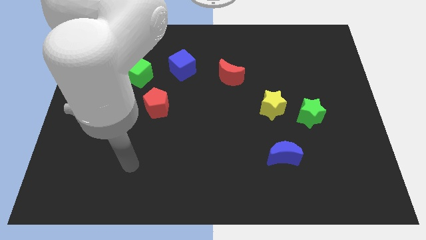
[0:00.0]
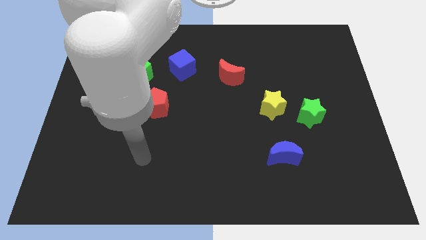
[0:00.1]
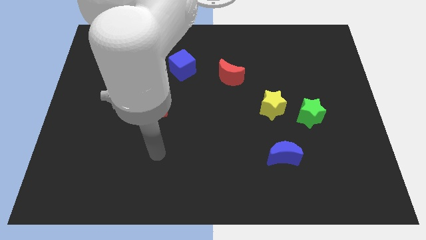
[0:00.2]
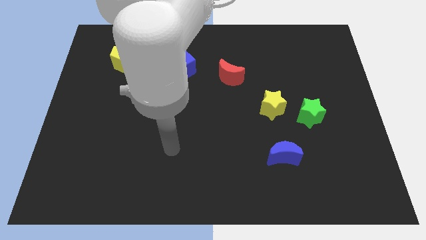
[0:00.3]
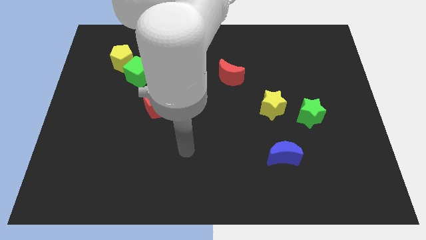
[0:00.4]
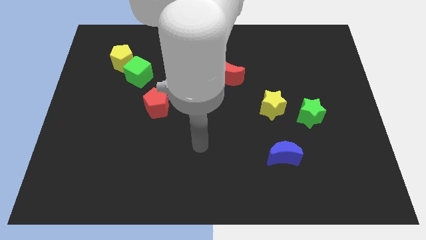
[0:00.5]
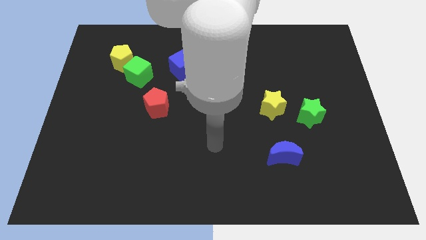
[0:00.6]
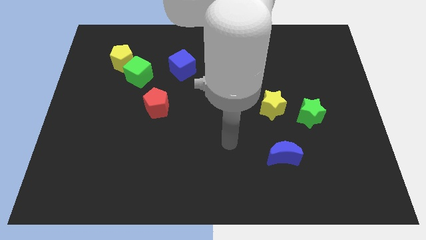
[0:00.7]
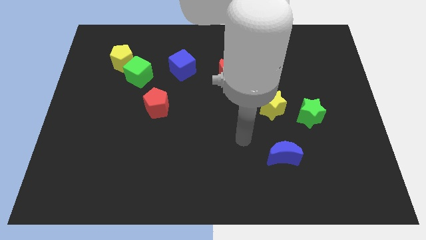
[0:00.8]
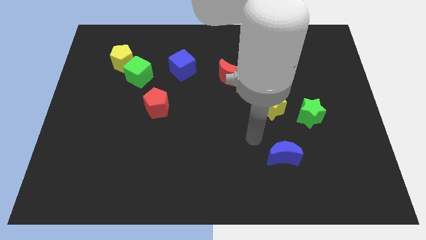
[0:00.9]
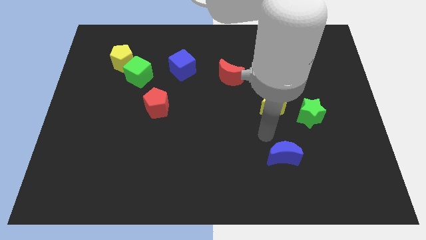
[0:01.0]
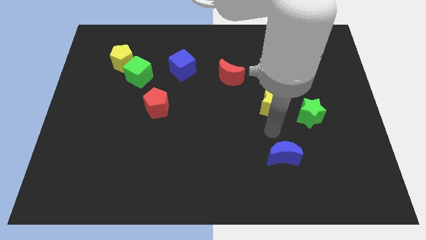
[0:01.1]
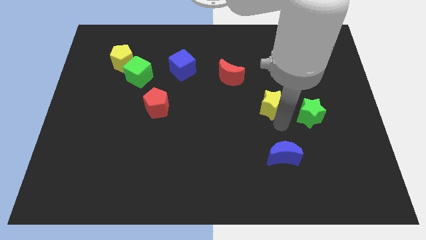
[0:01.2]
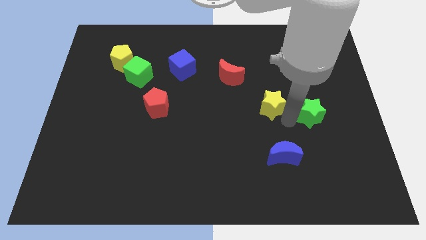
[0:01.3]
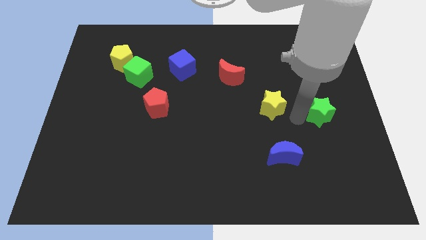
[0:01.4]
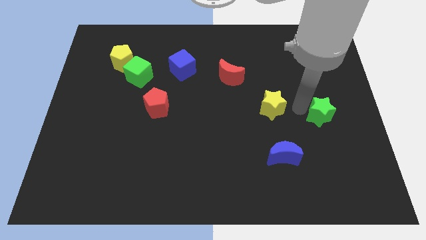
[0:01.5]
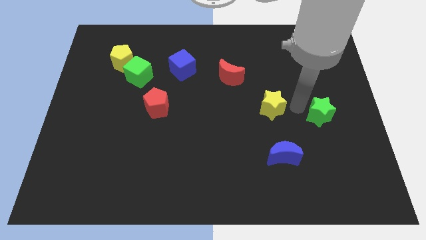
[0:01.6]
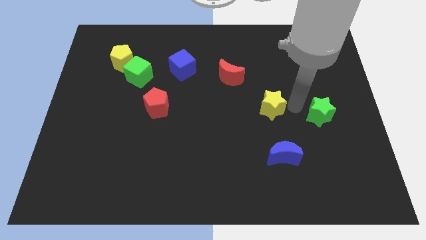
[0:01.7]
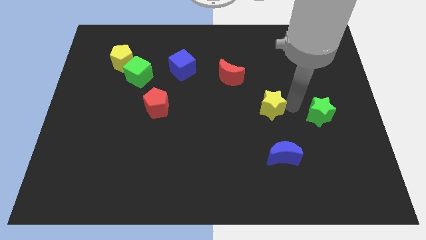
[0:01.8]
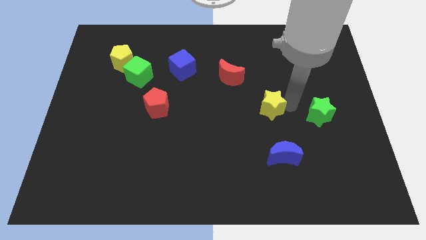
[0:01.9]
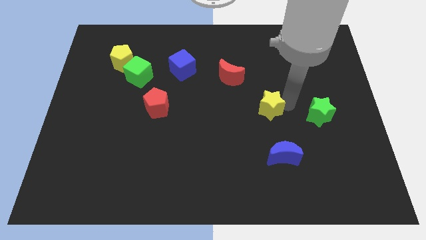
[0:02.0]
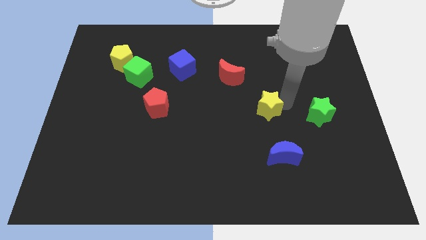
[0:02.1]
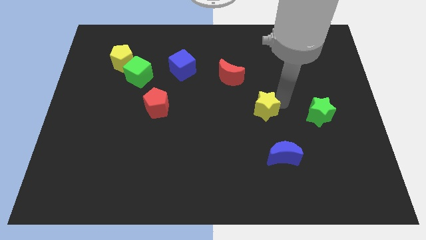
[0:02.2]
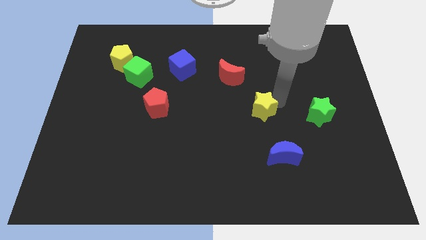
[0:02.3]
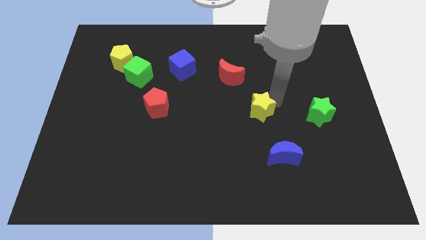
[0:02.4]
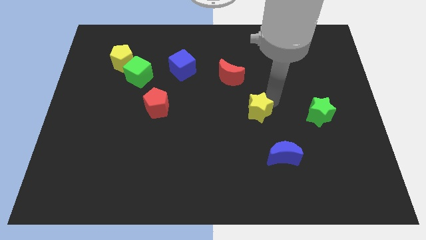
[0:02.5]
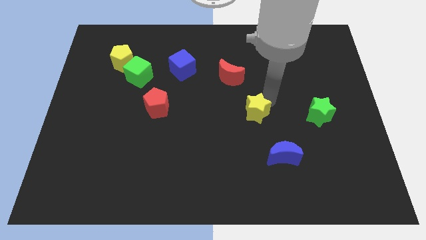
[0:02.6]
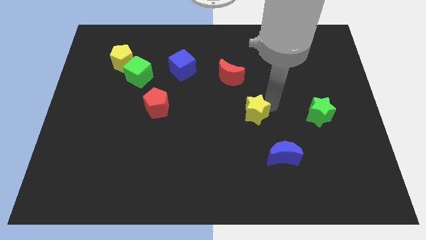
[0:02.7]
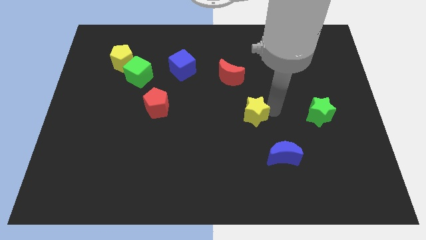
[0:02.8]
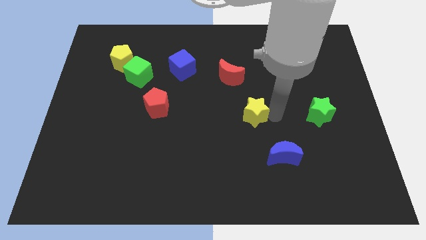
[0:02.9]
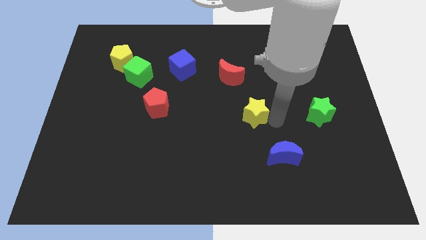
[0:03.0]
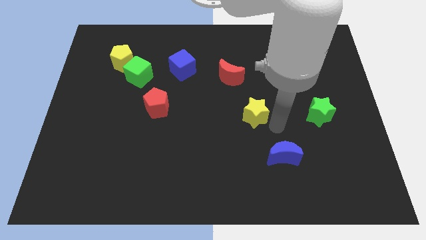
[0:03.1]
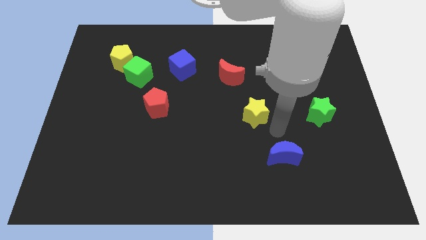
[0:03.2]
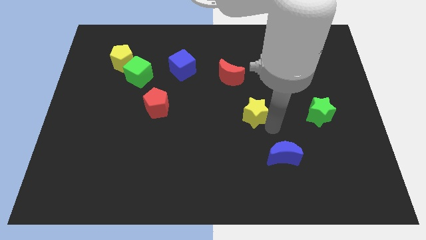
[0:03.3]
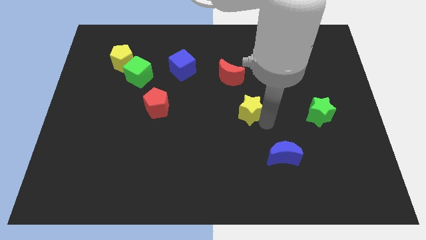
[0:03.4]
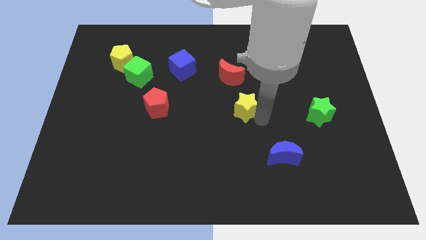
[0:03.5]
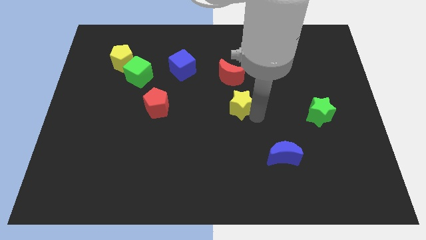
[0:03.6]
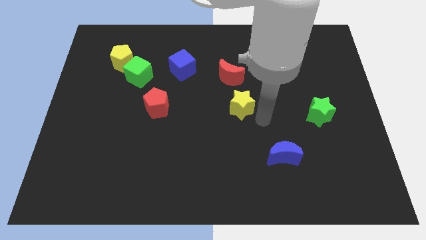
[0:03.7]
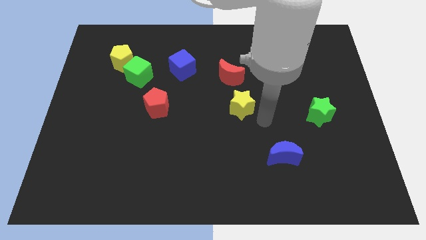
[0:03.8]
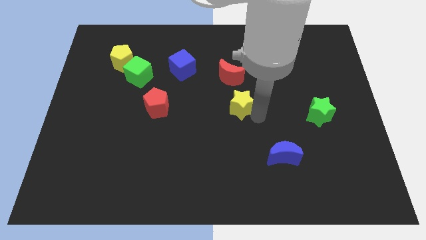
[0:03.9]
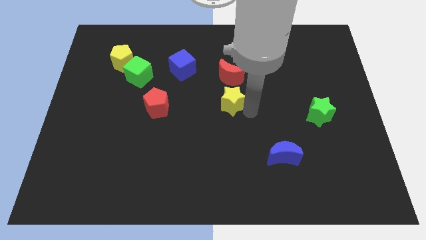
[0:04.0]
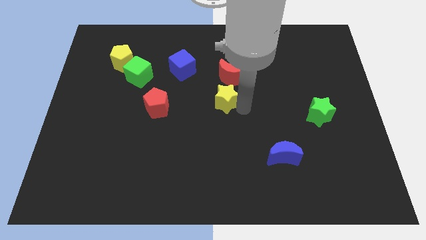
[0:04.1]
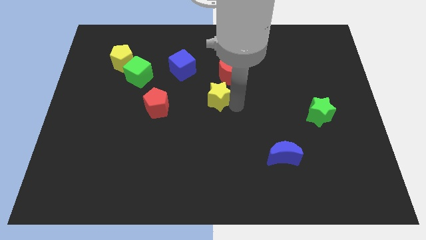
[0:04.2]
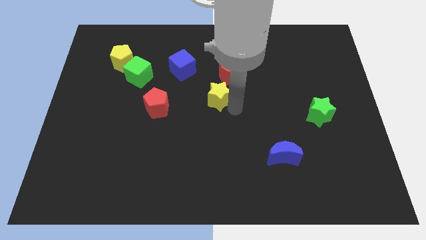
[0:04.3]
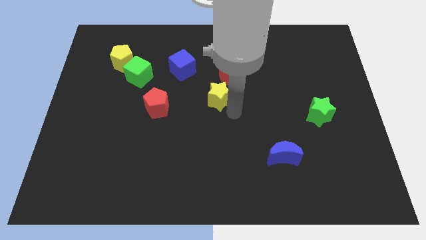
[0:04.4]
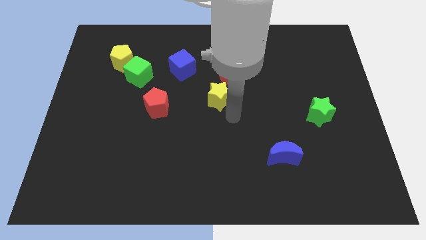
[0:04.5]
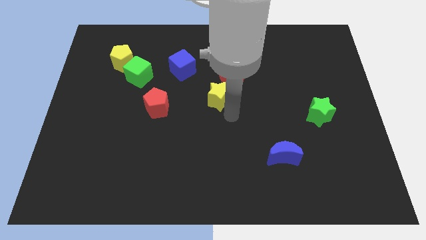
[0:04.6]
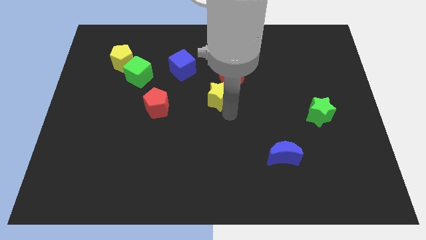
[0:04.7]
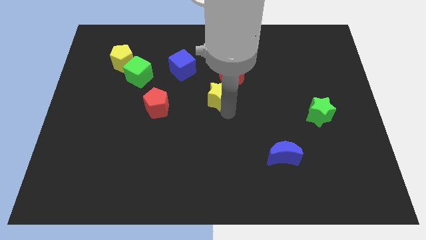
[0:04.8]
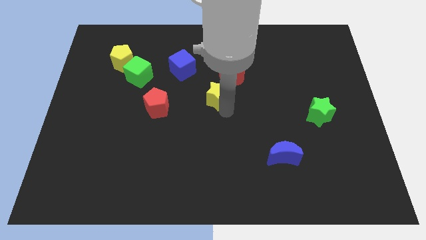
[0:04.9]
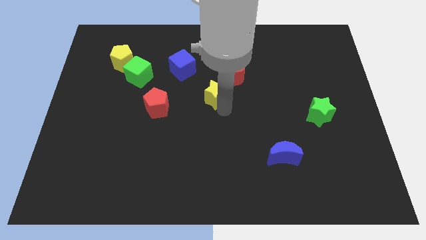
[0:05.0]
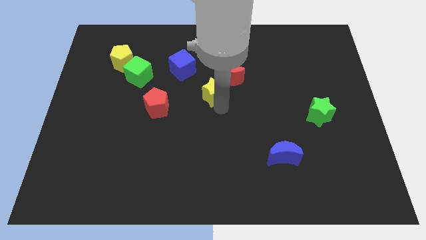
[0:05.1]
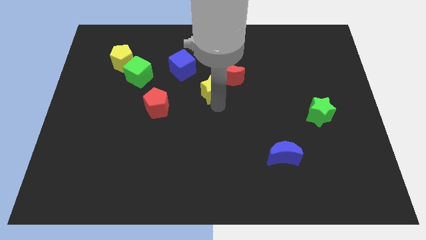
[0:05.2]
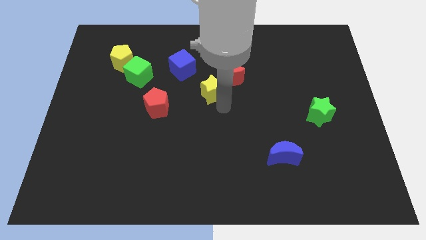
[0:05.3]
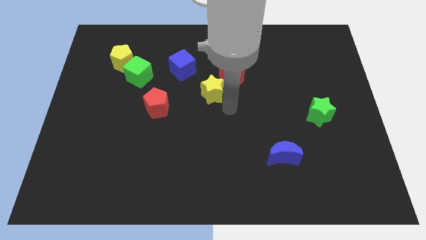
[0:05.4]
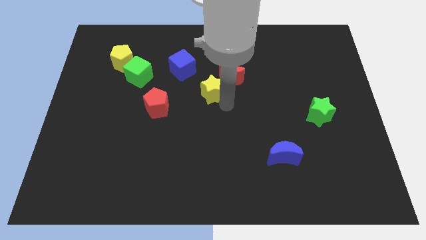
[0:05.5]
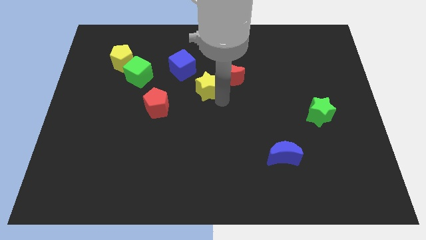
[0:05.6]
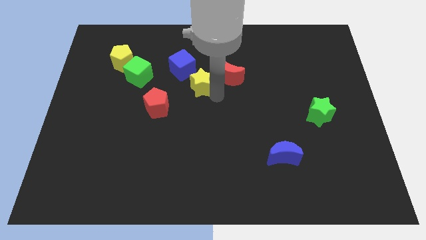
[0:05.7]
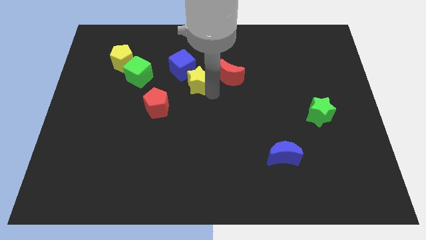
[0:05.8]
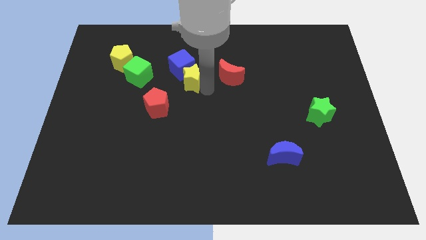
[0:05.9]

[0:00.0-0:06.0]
slide the yellow star to the blue cube

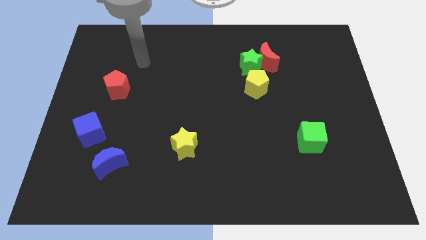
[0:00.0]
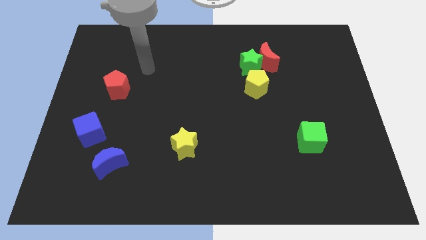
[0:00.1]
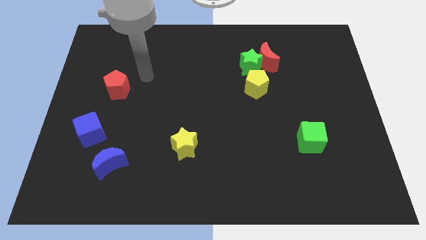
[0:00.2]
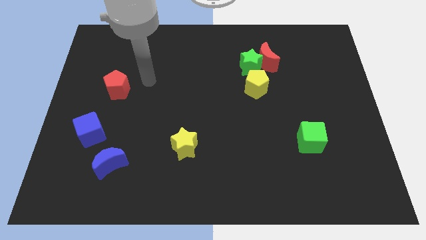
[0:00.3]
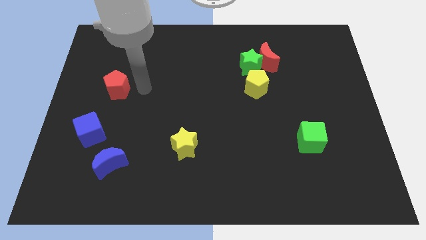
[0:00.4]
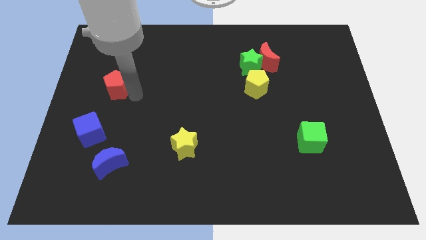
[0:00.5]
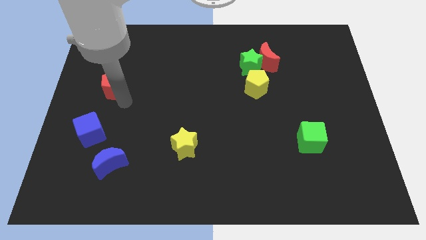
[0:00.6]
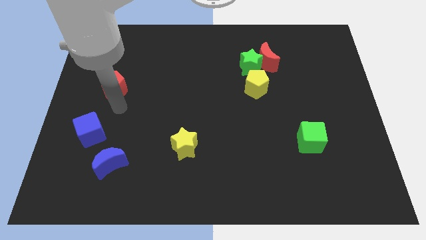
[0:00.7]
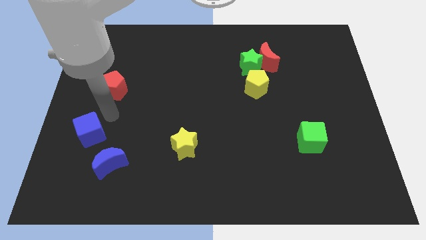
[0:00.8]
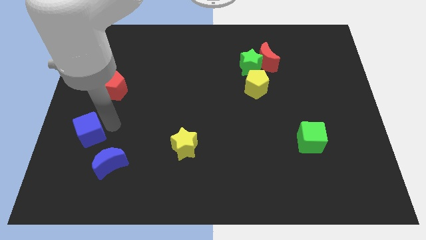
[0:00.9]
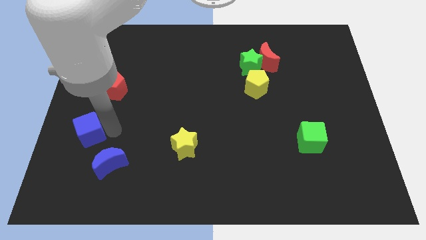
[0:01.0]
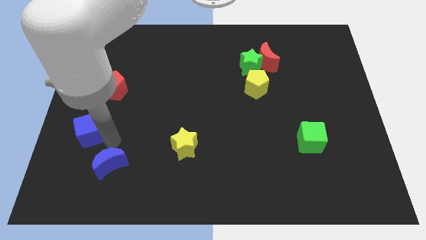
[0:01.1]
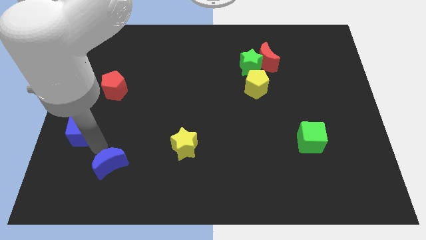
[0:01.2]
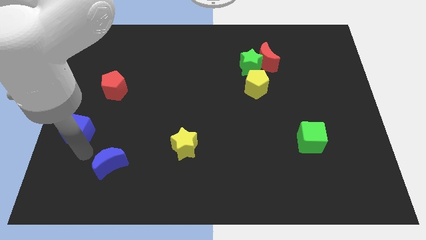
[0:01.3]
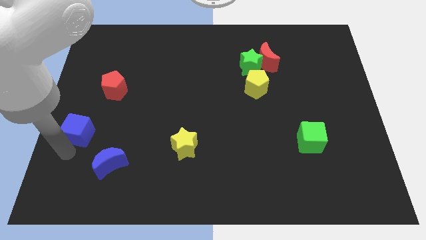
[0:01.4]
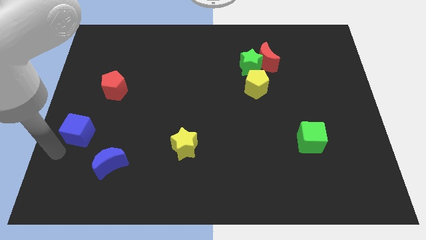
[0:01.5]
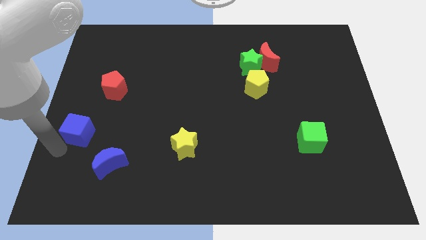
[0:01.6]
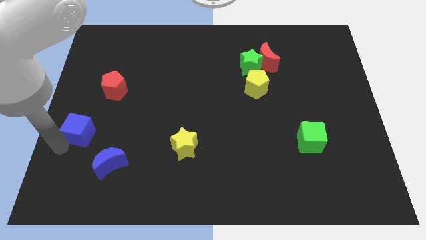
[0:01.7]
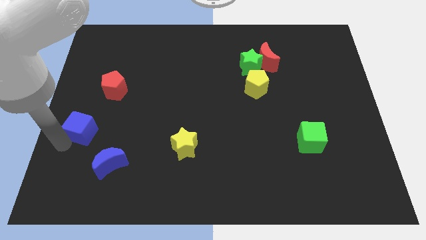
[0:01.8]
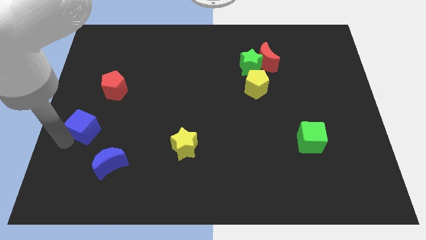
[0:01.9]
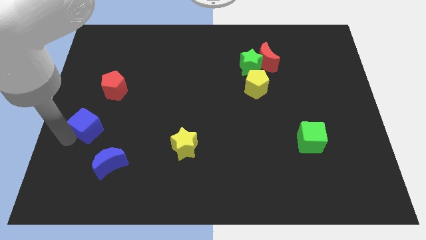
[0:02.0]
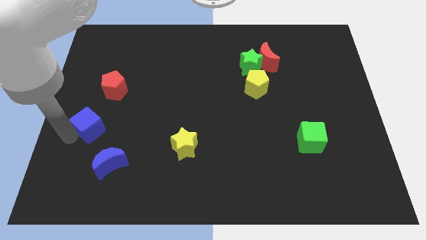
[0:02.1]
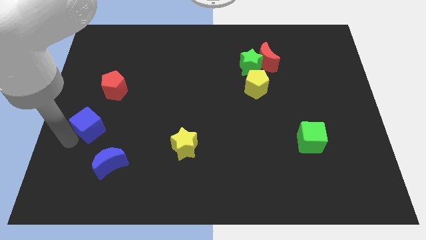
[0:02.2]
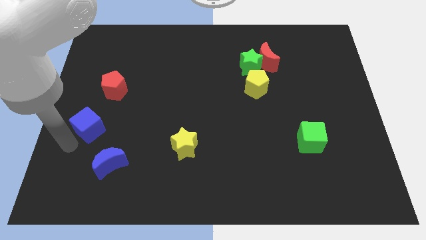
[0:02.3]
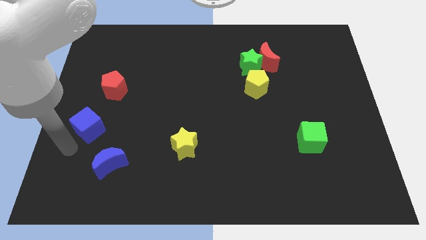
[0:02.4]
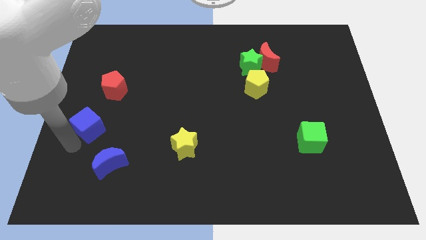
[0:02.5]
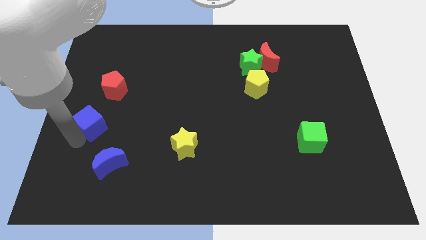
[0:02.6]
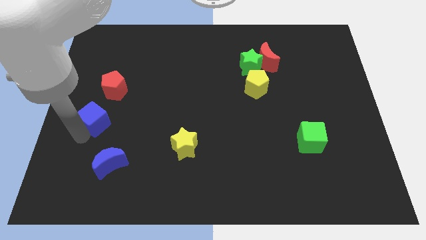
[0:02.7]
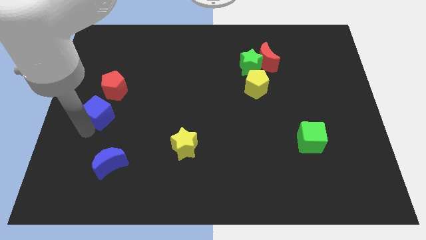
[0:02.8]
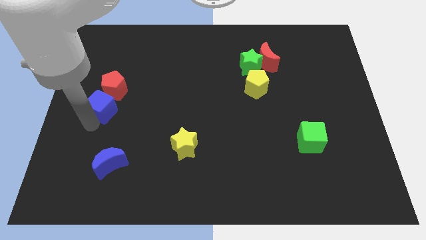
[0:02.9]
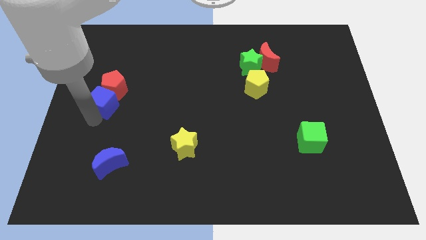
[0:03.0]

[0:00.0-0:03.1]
push the blue cube to the red pentagon
